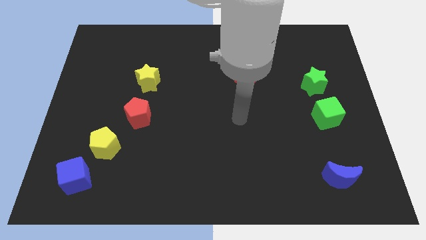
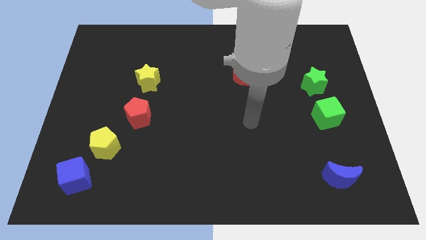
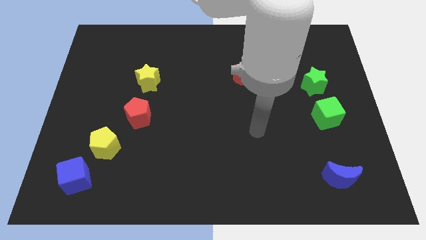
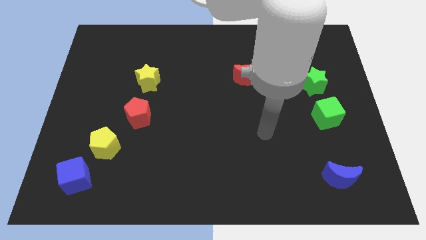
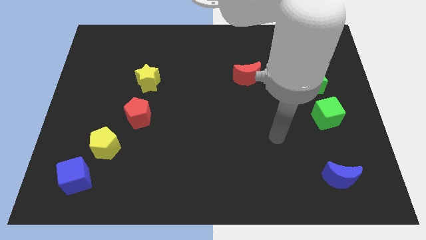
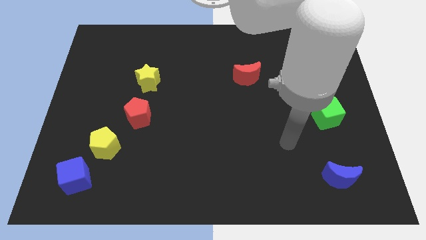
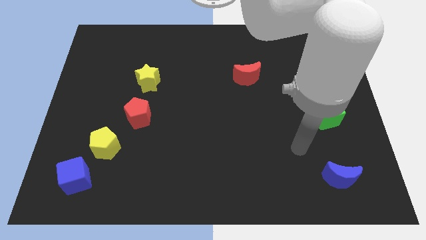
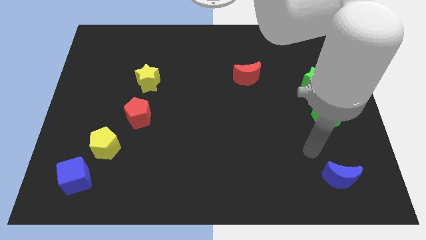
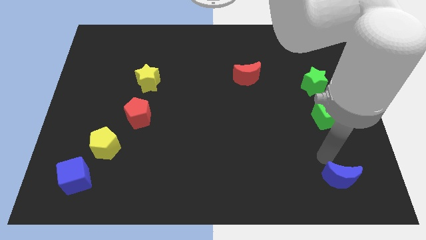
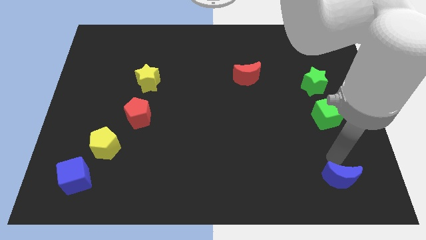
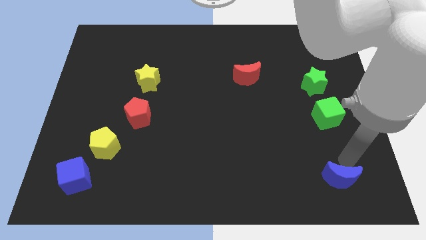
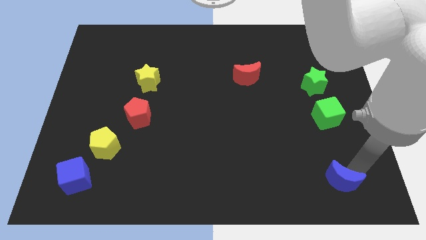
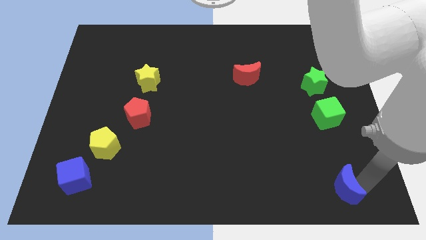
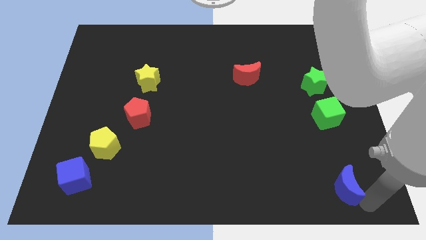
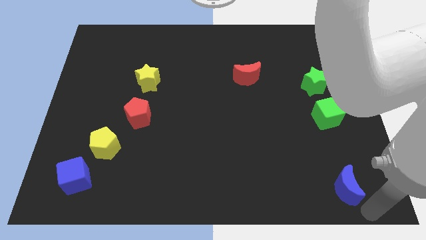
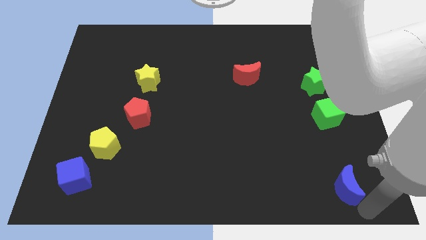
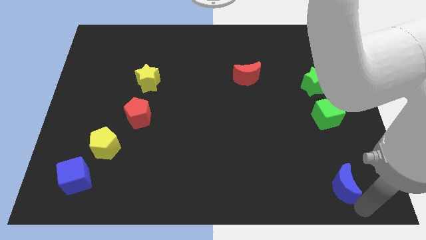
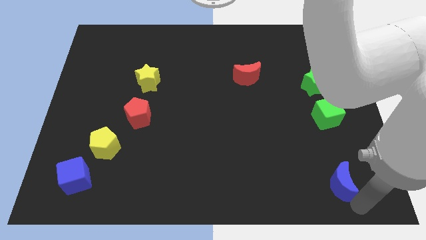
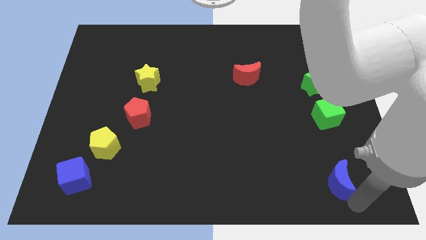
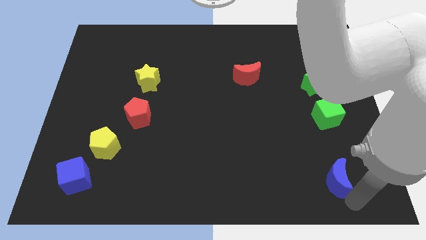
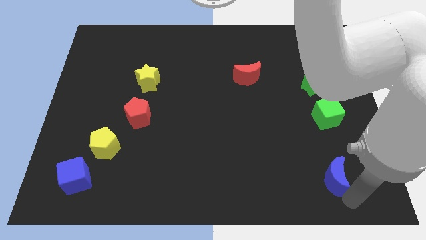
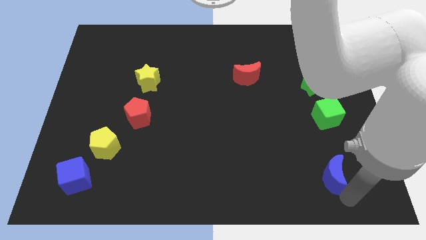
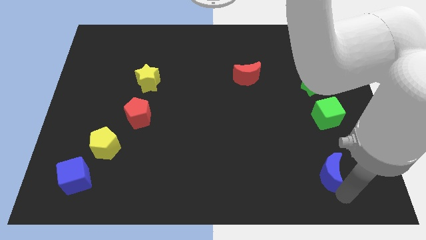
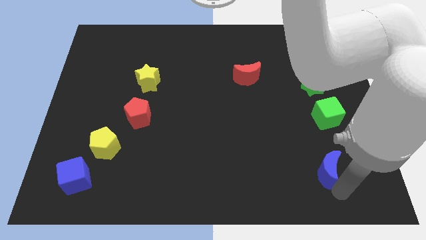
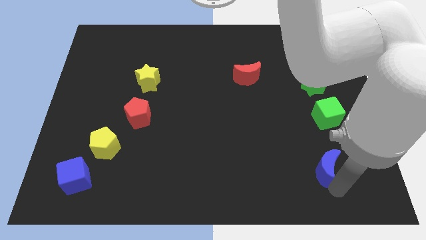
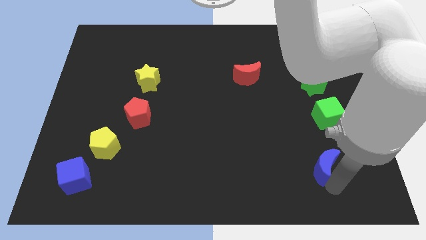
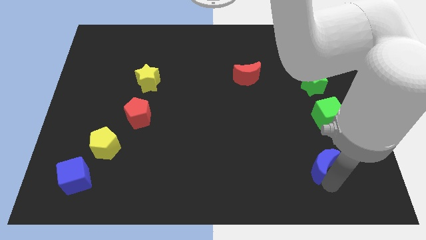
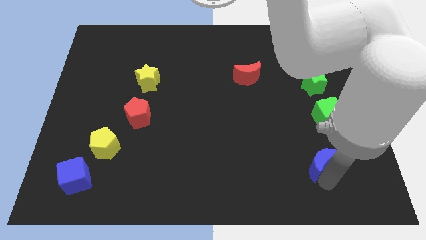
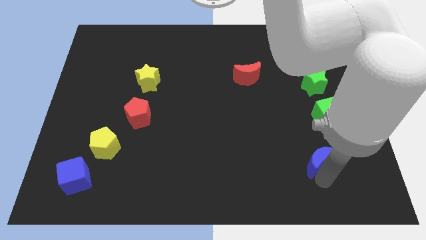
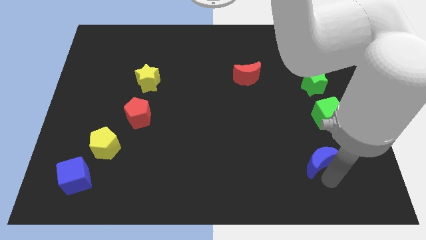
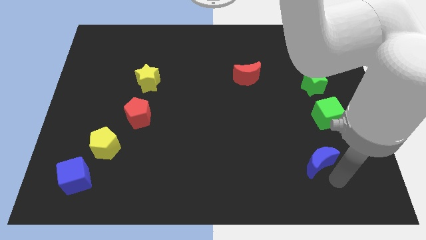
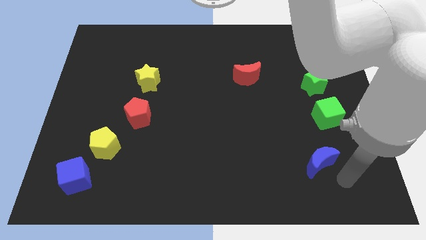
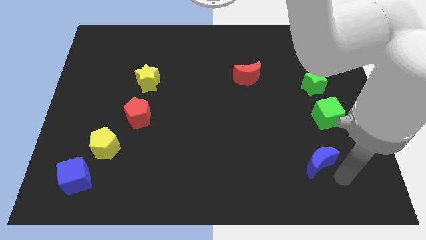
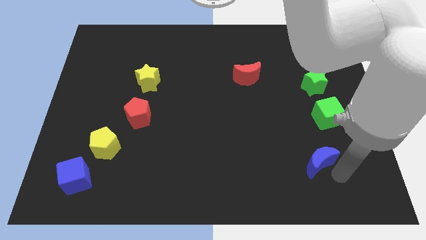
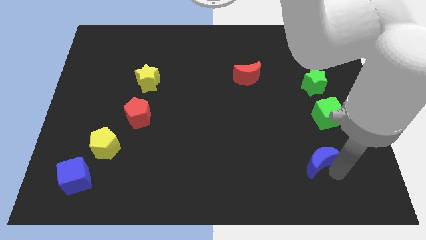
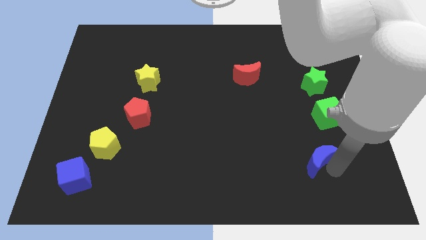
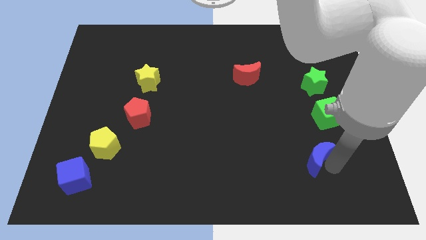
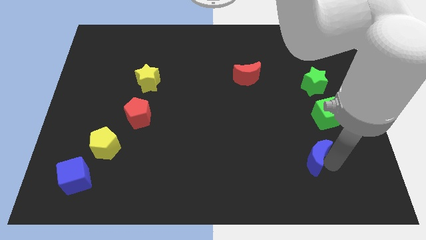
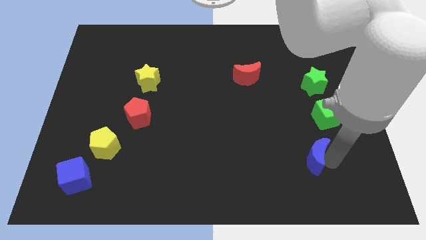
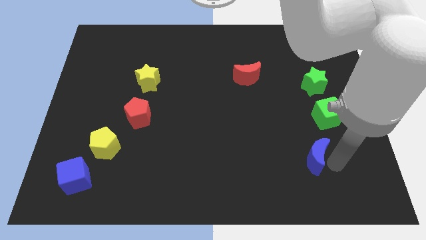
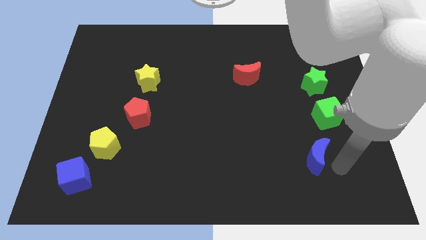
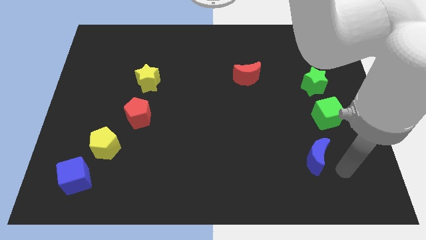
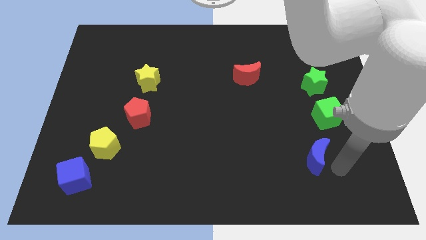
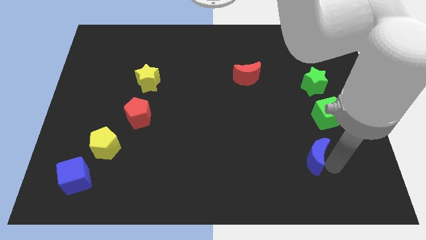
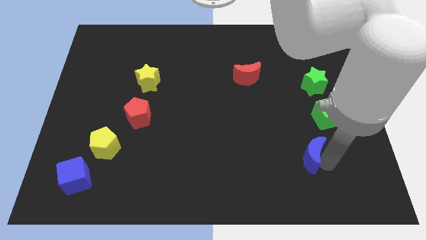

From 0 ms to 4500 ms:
push the blue moon a little diagonally up and to the left

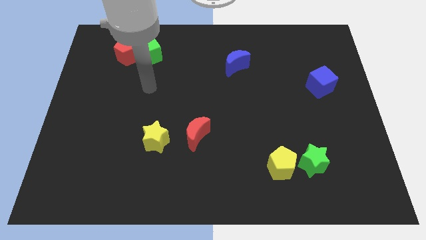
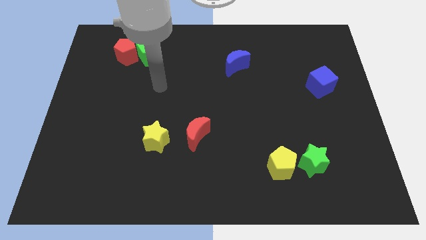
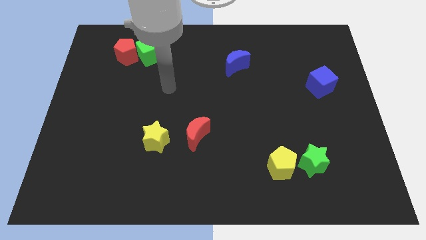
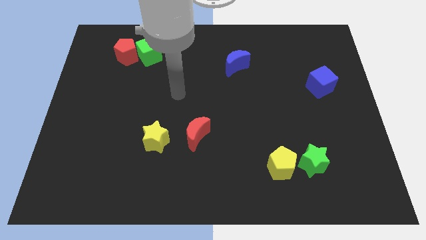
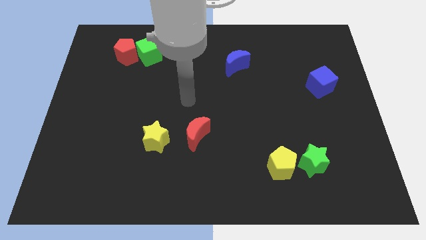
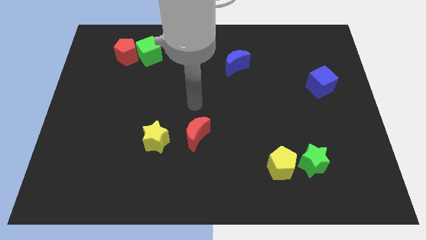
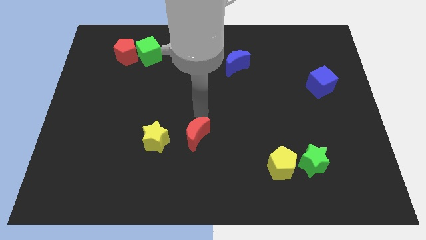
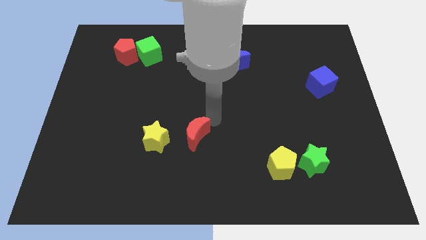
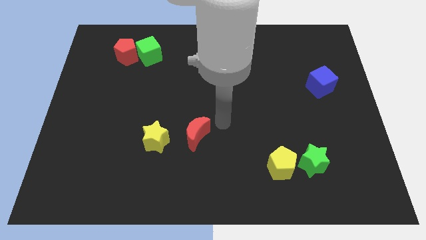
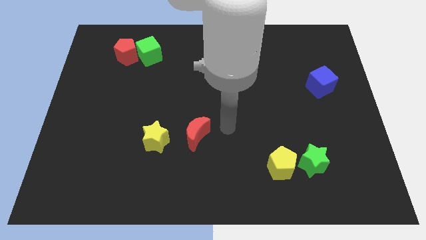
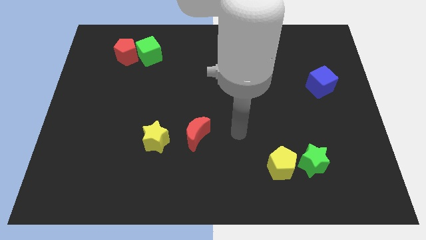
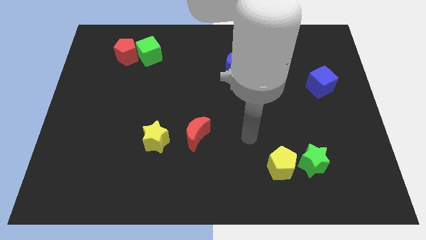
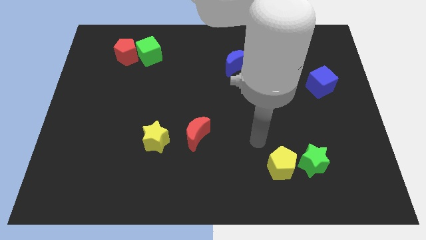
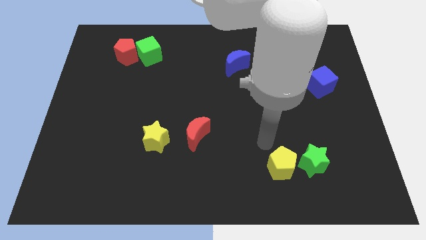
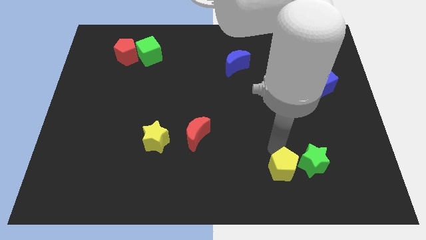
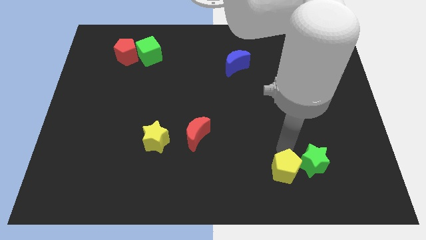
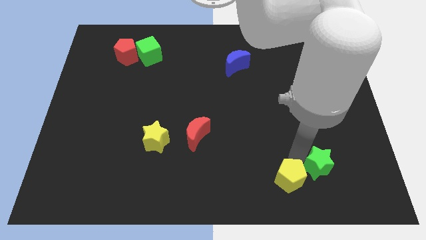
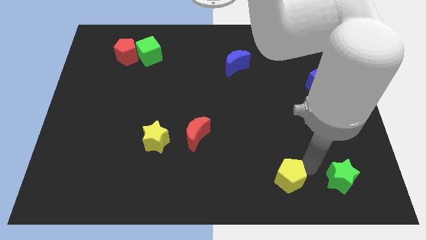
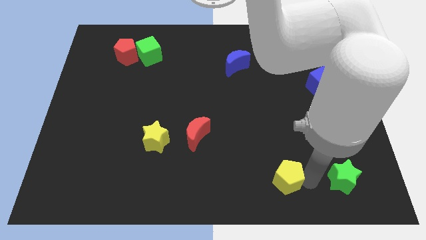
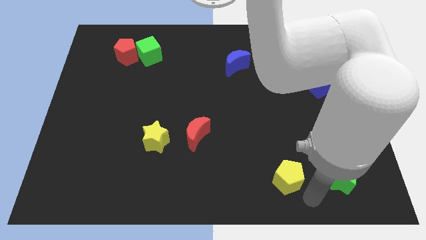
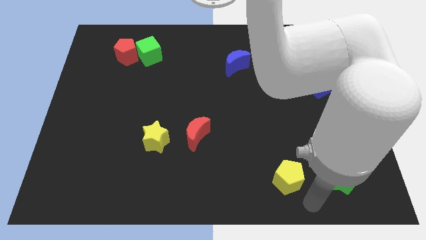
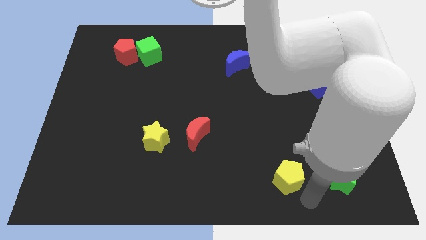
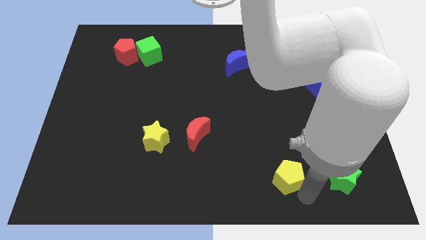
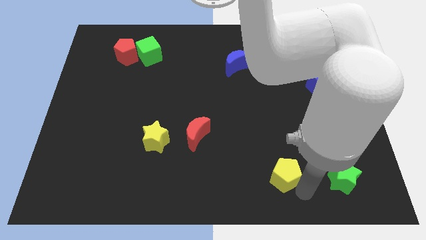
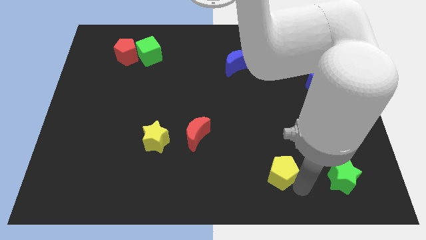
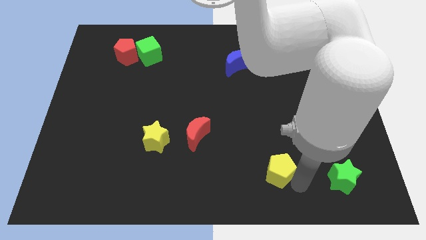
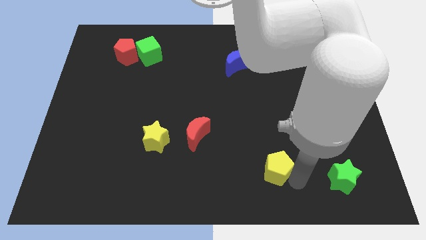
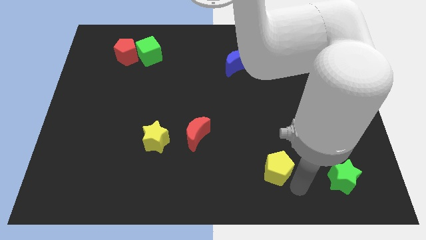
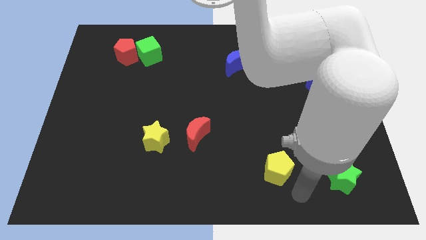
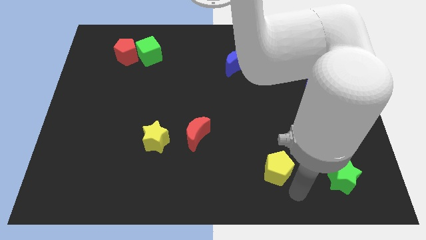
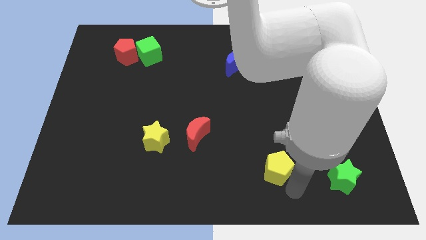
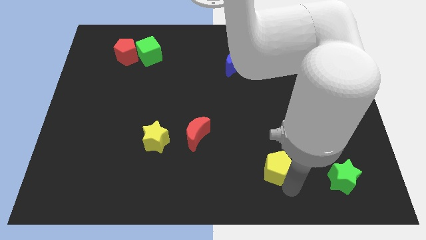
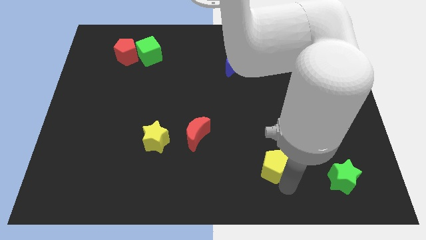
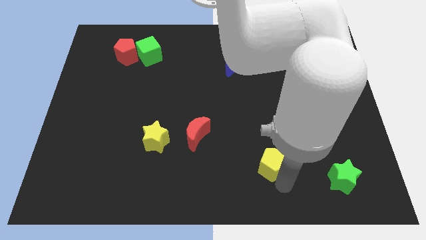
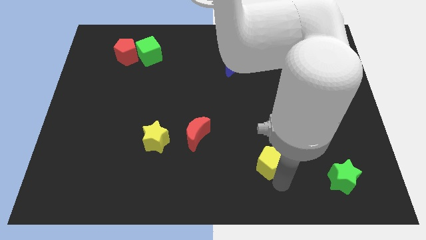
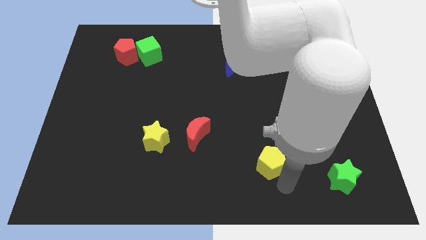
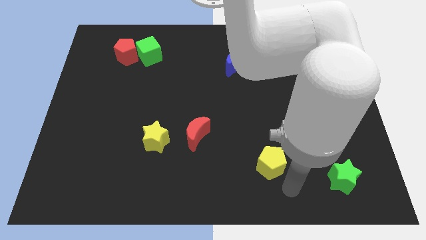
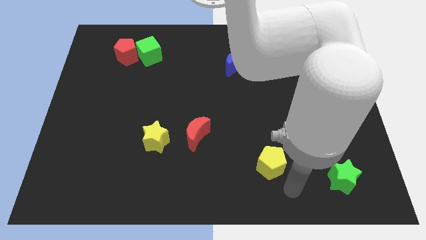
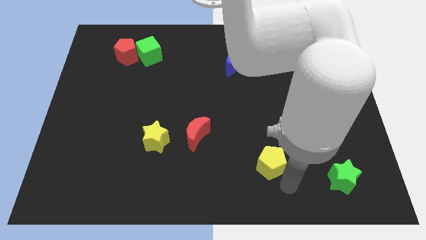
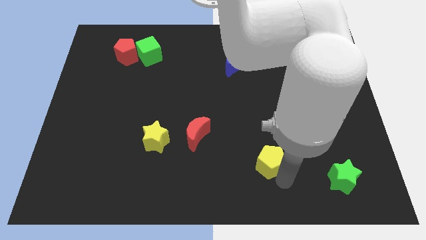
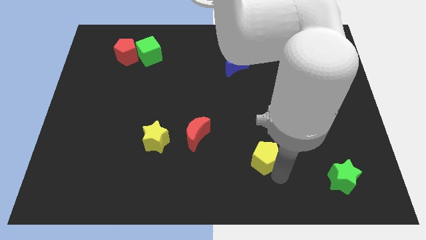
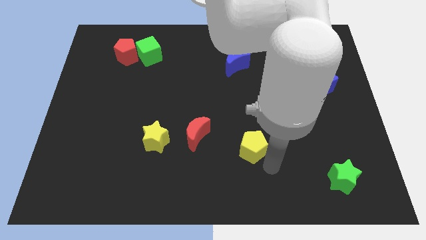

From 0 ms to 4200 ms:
slightly slide the yellow pentagon upwards and left diagonally
